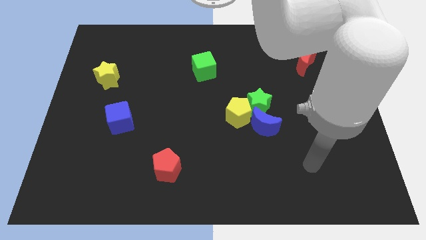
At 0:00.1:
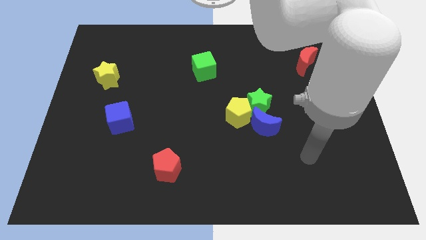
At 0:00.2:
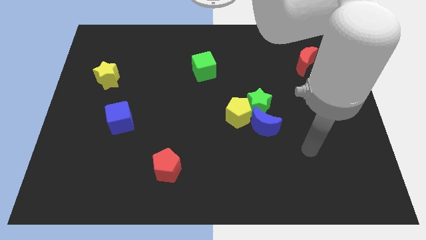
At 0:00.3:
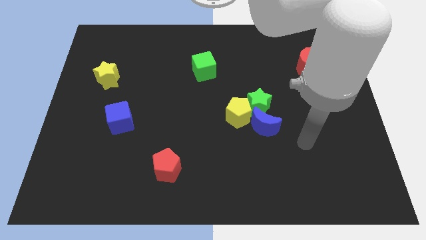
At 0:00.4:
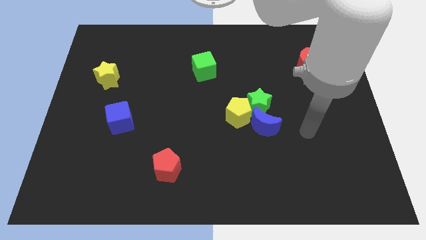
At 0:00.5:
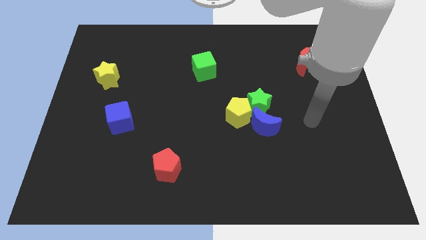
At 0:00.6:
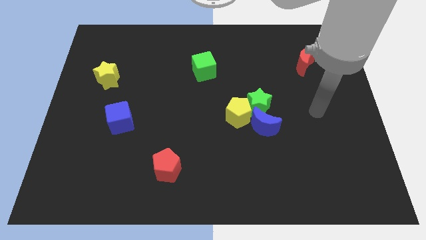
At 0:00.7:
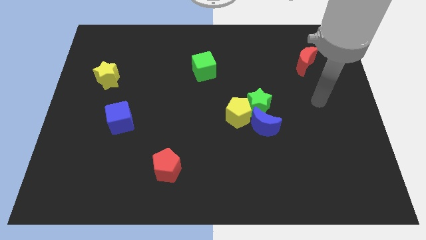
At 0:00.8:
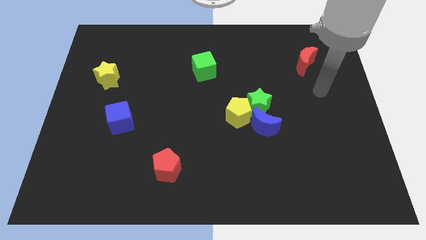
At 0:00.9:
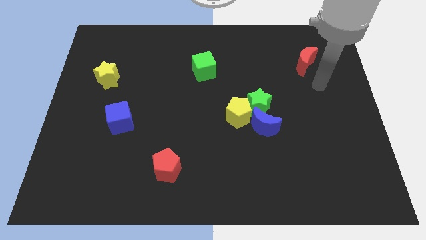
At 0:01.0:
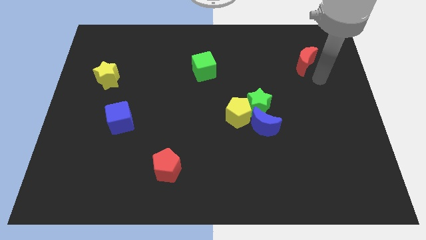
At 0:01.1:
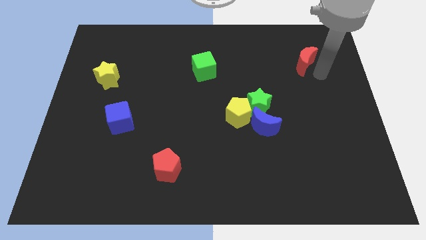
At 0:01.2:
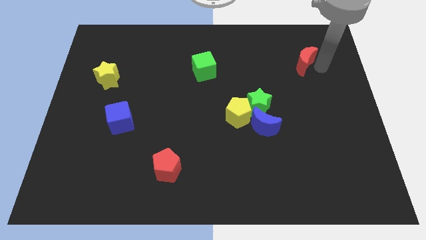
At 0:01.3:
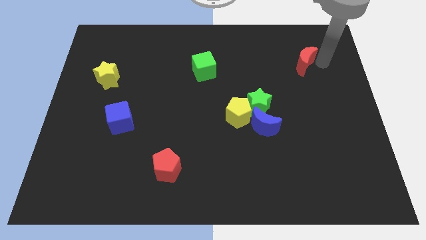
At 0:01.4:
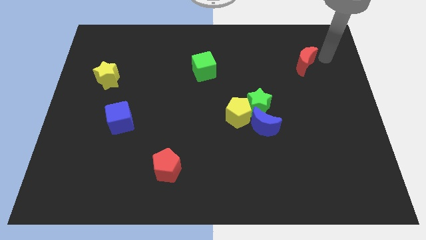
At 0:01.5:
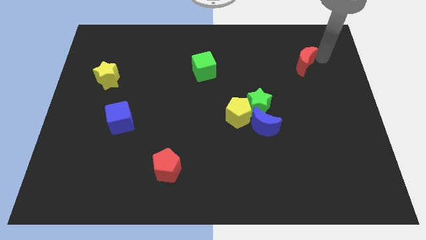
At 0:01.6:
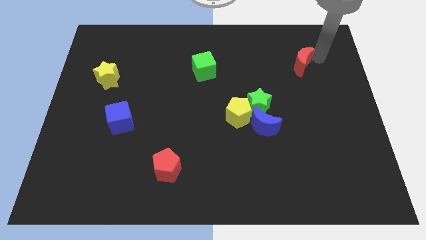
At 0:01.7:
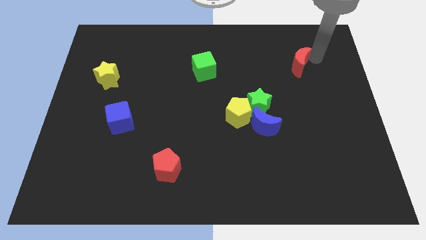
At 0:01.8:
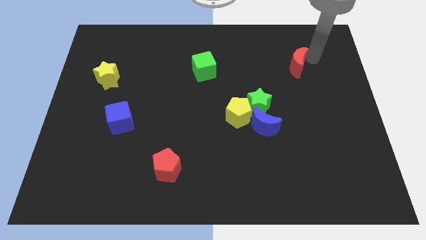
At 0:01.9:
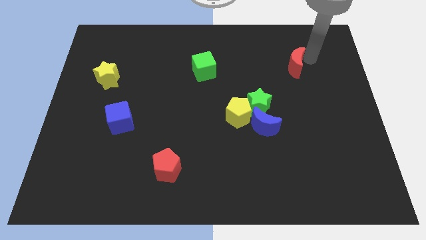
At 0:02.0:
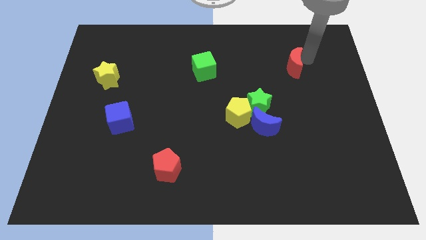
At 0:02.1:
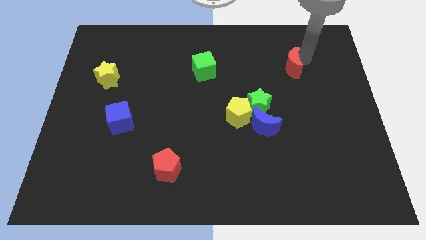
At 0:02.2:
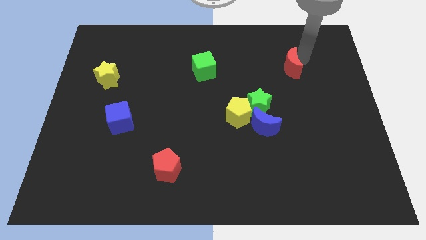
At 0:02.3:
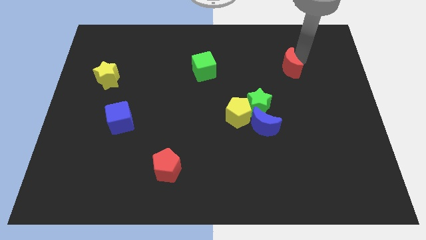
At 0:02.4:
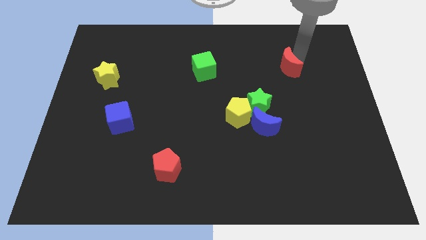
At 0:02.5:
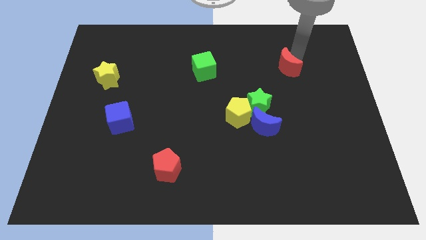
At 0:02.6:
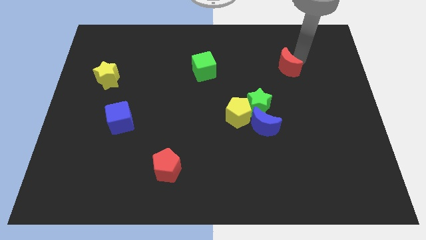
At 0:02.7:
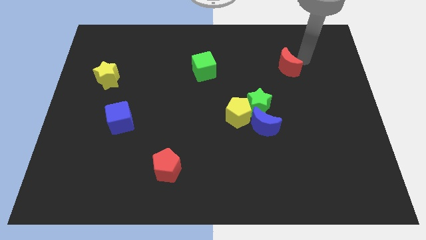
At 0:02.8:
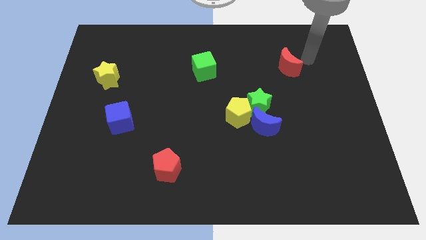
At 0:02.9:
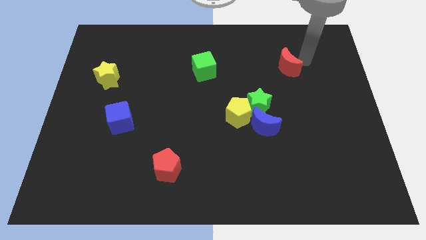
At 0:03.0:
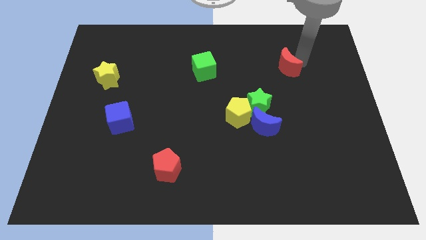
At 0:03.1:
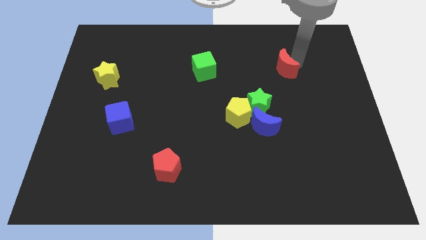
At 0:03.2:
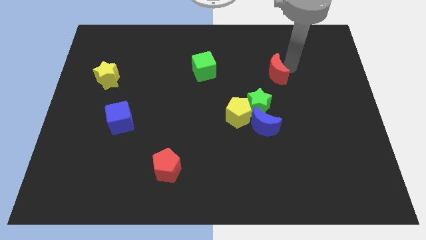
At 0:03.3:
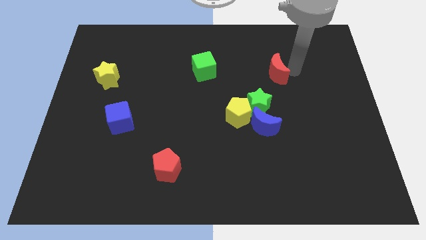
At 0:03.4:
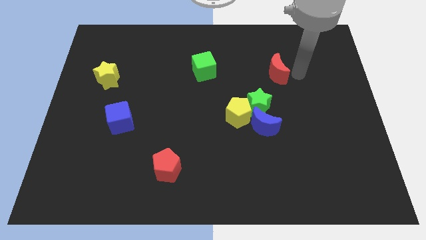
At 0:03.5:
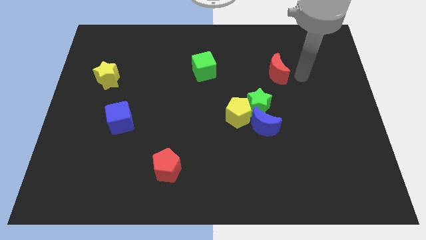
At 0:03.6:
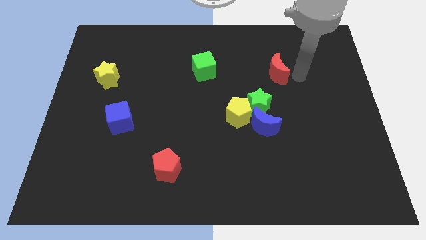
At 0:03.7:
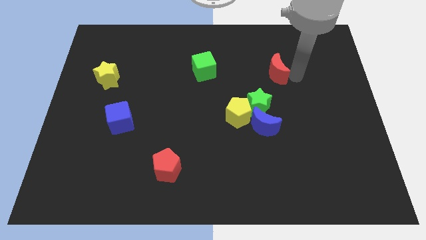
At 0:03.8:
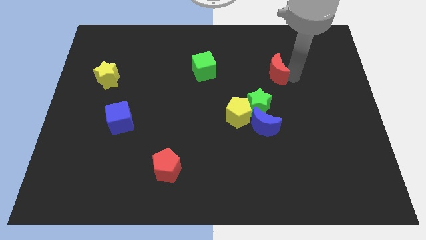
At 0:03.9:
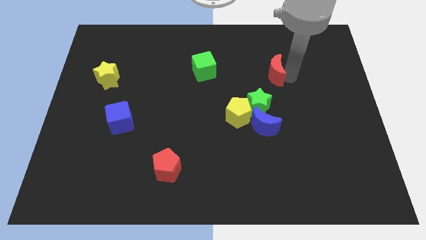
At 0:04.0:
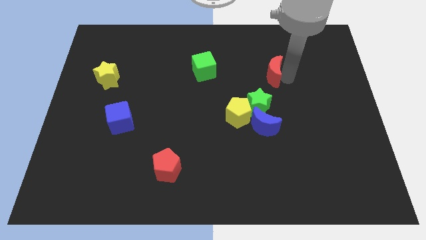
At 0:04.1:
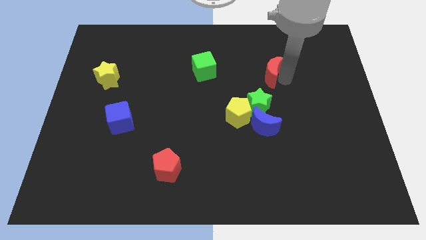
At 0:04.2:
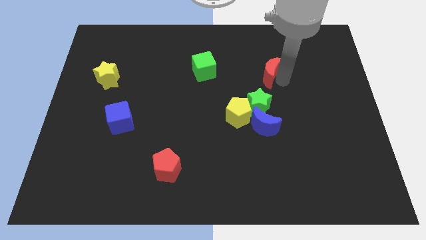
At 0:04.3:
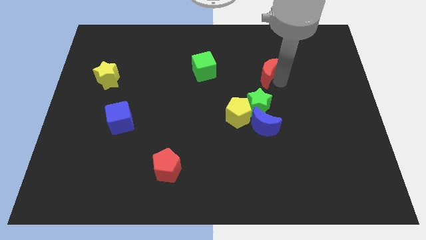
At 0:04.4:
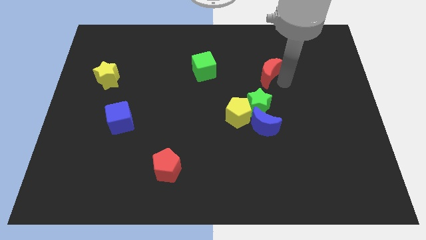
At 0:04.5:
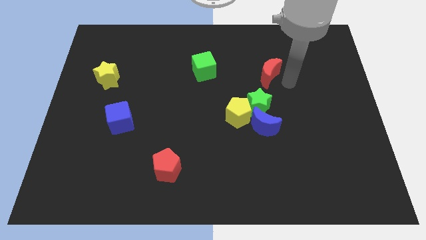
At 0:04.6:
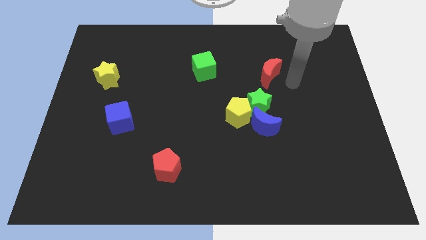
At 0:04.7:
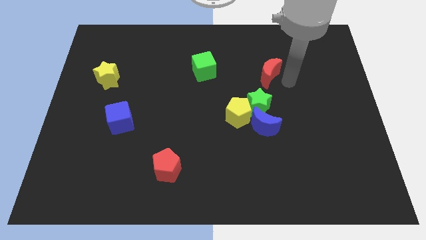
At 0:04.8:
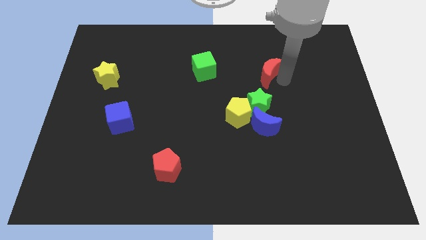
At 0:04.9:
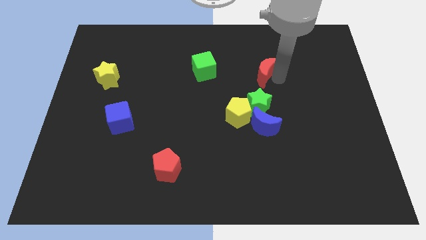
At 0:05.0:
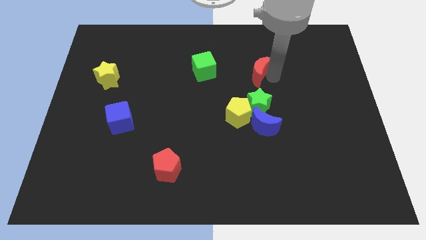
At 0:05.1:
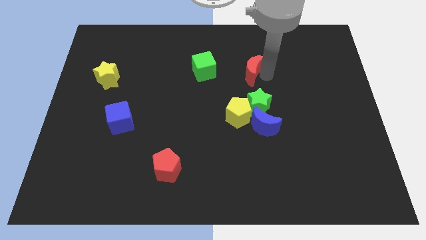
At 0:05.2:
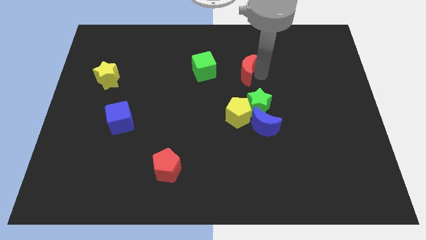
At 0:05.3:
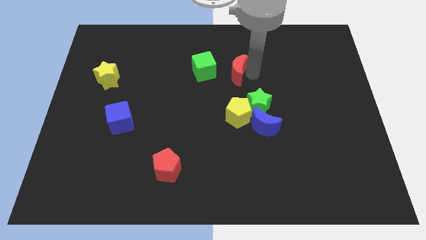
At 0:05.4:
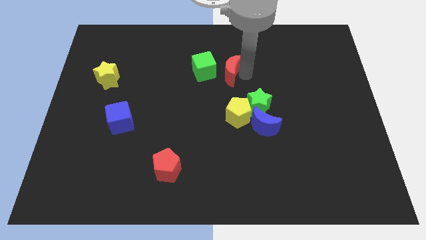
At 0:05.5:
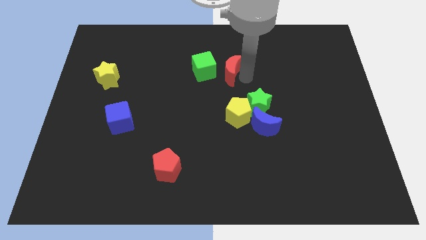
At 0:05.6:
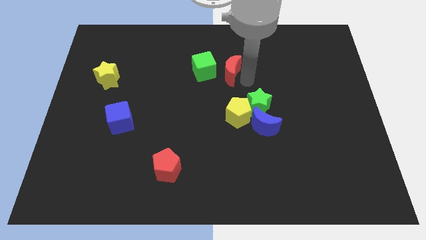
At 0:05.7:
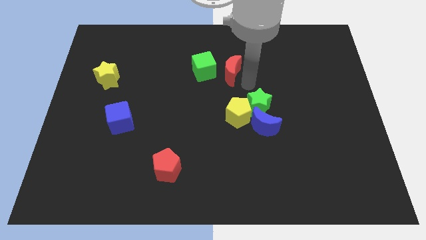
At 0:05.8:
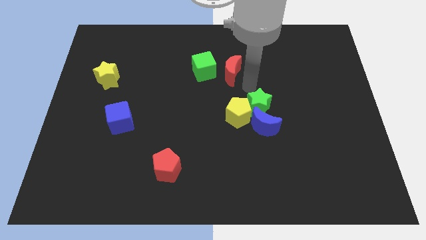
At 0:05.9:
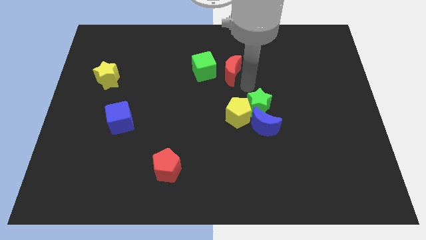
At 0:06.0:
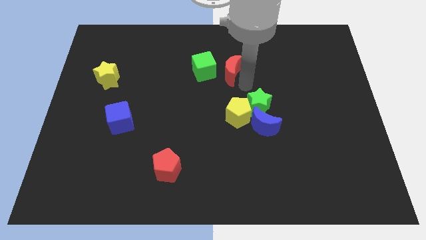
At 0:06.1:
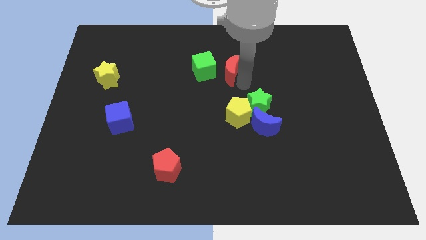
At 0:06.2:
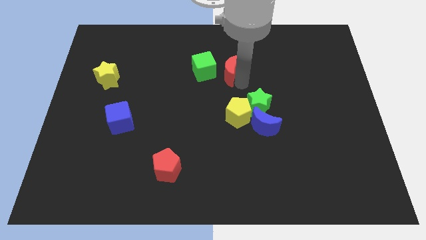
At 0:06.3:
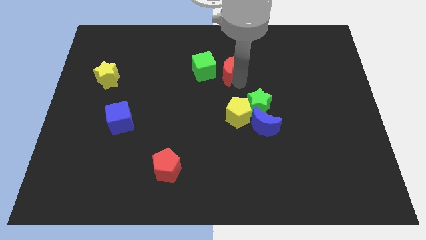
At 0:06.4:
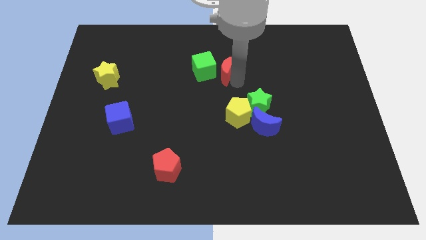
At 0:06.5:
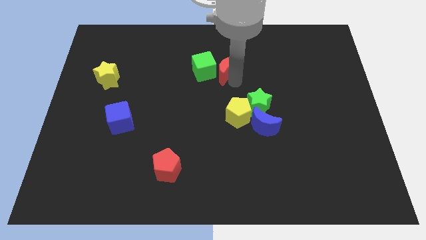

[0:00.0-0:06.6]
push the red moon left

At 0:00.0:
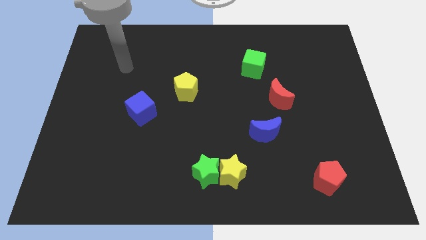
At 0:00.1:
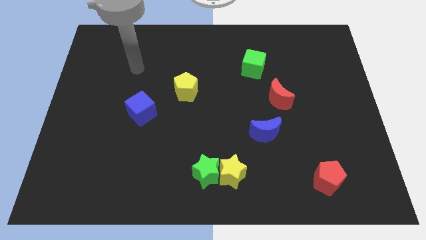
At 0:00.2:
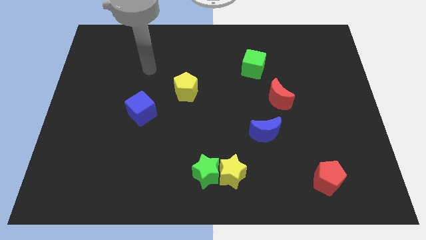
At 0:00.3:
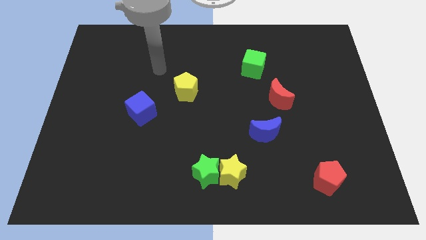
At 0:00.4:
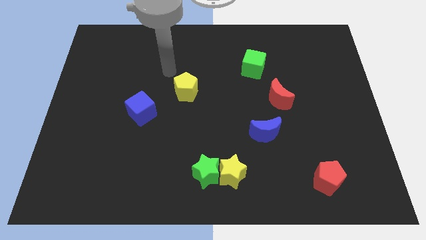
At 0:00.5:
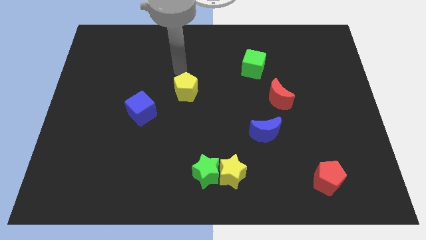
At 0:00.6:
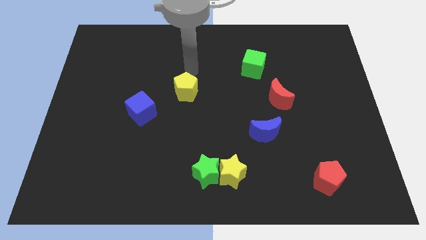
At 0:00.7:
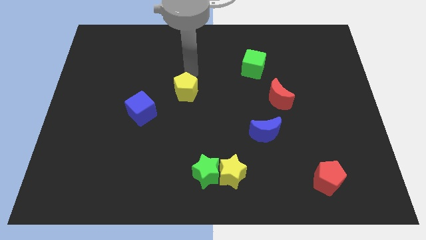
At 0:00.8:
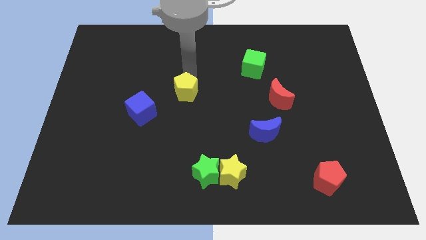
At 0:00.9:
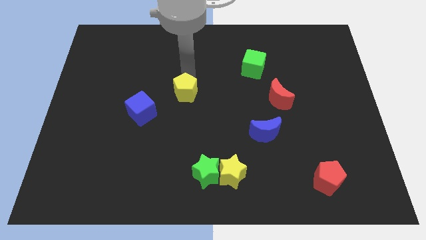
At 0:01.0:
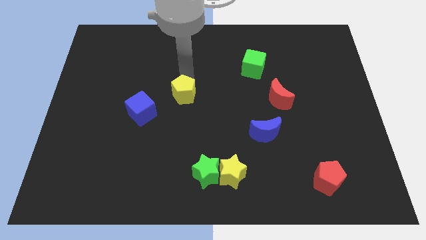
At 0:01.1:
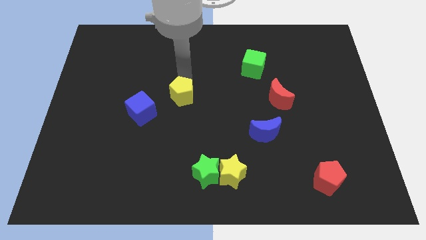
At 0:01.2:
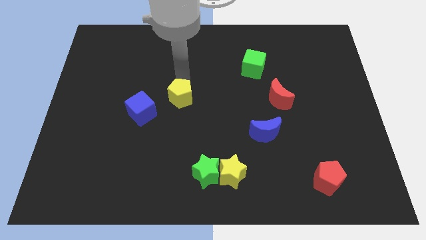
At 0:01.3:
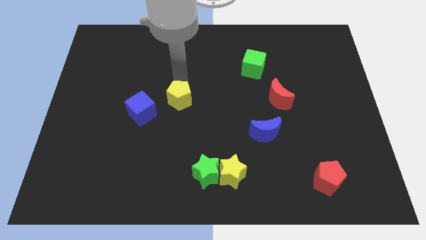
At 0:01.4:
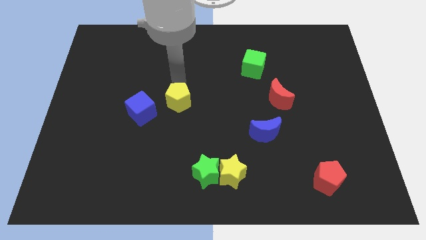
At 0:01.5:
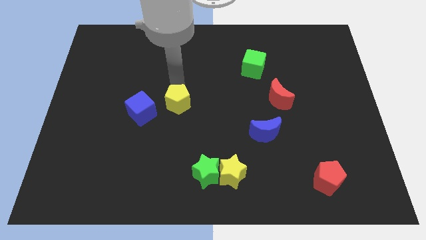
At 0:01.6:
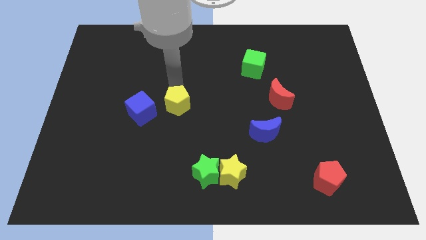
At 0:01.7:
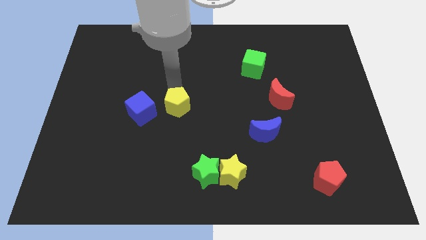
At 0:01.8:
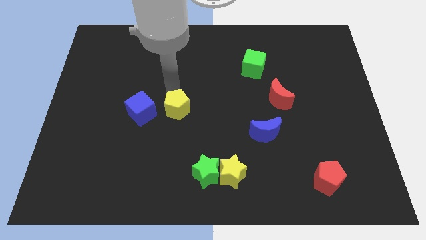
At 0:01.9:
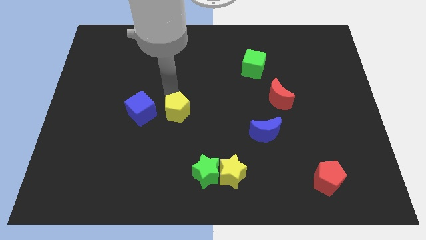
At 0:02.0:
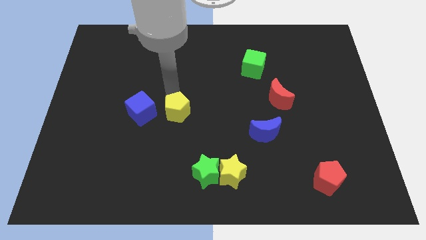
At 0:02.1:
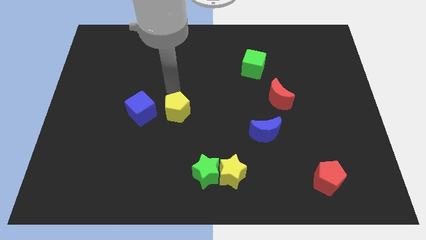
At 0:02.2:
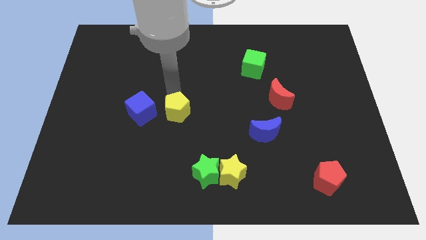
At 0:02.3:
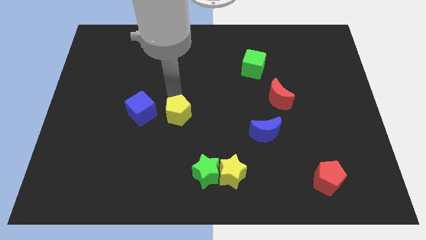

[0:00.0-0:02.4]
move the yellow pentagon downwards a little bit
